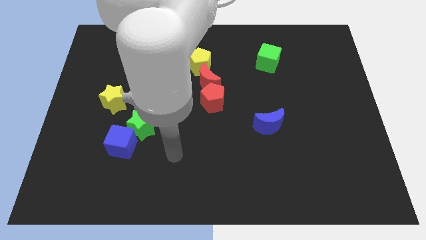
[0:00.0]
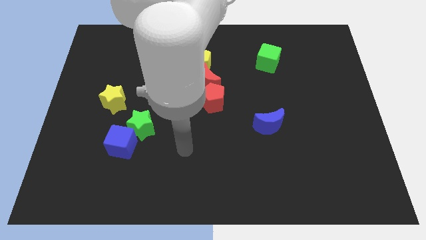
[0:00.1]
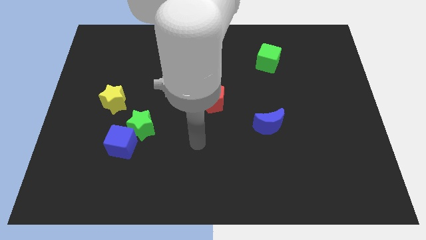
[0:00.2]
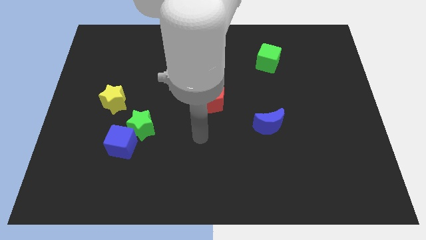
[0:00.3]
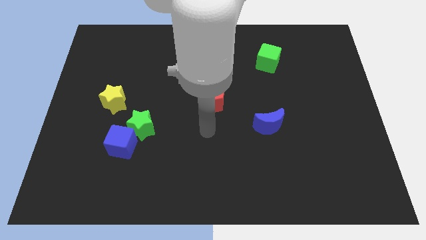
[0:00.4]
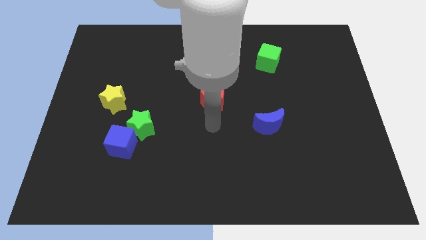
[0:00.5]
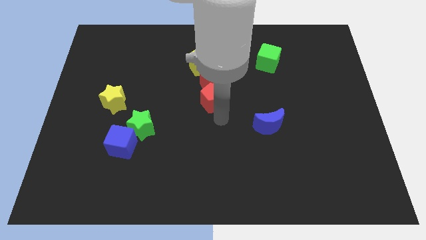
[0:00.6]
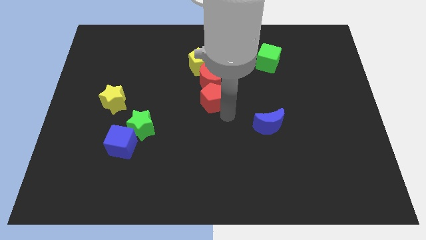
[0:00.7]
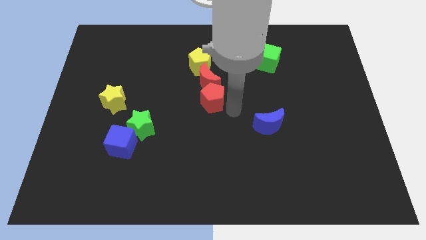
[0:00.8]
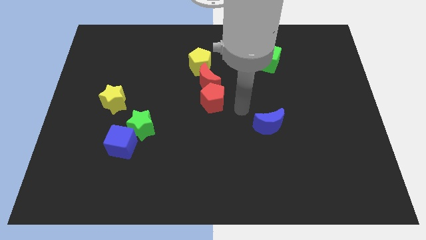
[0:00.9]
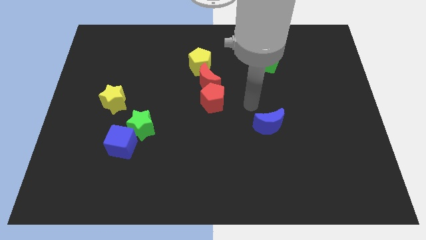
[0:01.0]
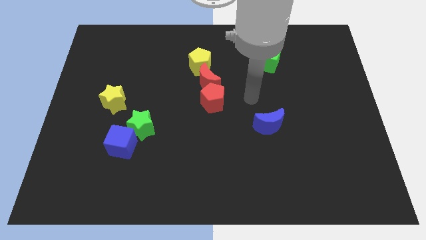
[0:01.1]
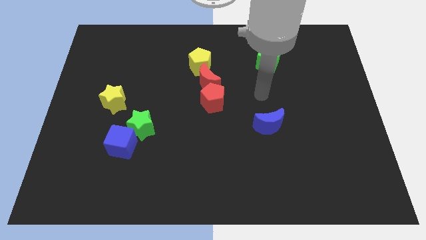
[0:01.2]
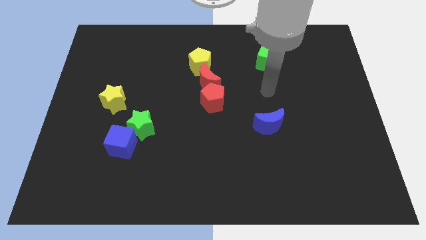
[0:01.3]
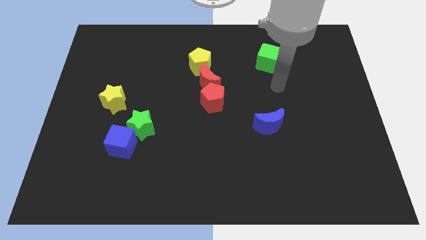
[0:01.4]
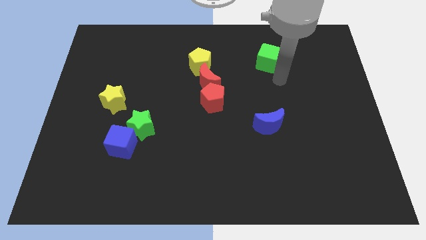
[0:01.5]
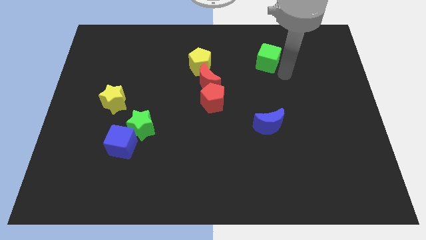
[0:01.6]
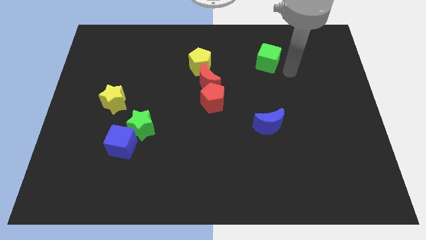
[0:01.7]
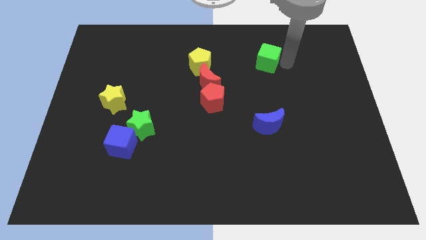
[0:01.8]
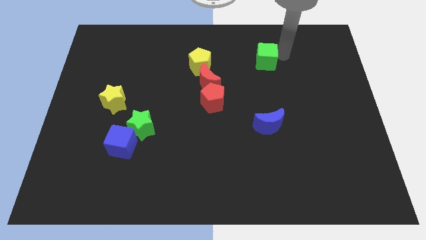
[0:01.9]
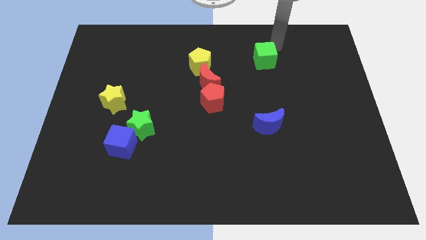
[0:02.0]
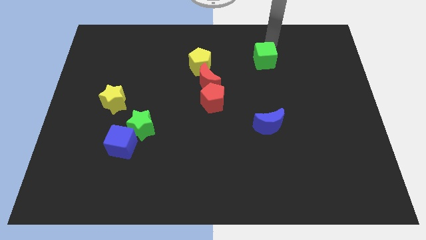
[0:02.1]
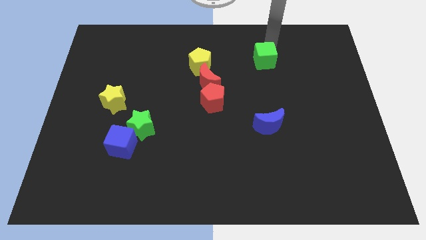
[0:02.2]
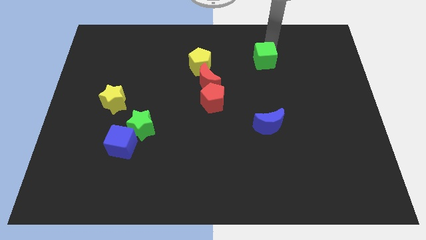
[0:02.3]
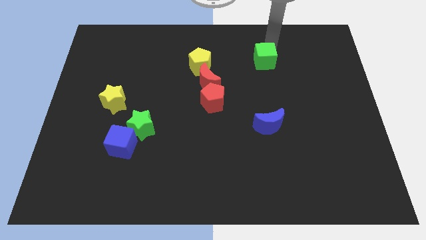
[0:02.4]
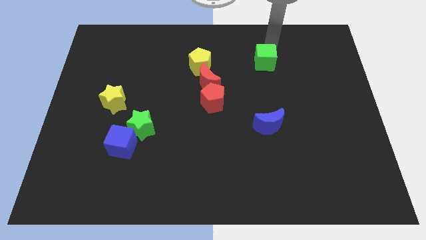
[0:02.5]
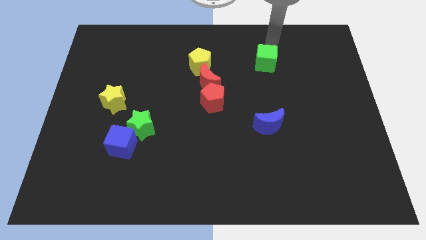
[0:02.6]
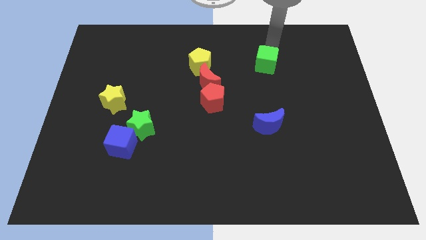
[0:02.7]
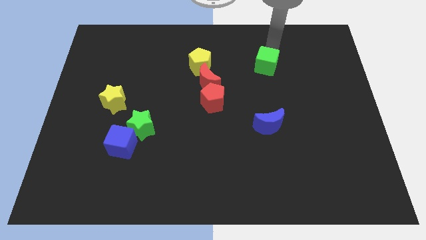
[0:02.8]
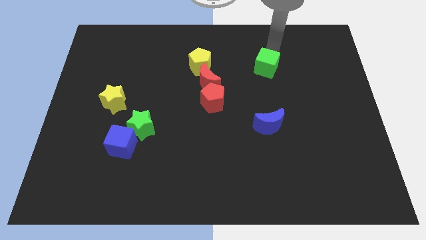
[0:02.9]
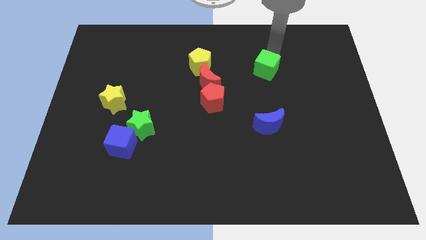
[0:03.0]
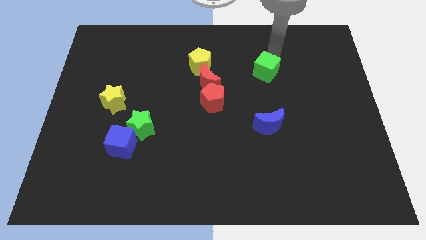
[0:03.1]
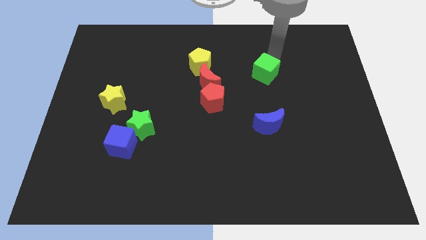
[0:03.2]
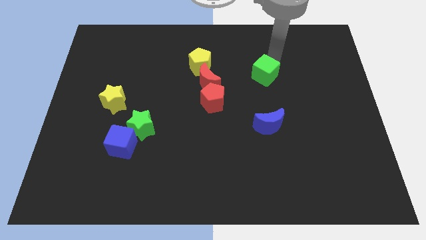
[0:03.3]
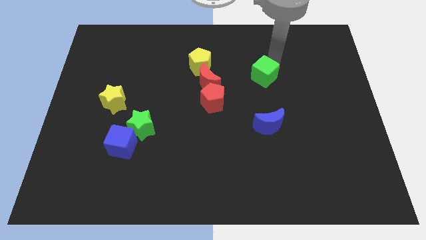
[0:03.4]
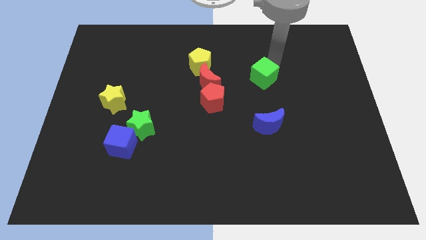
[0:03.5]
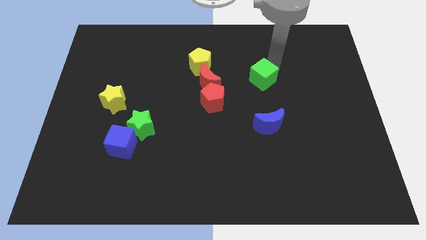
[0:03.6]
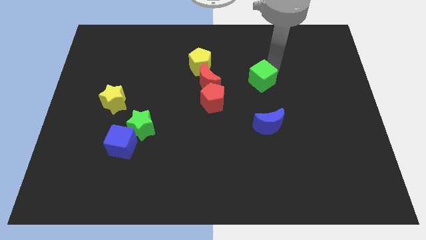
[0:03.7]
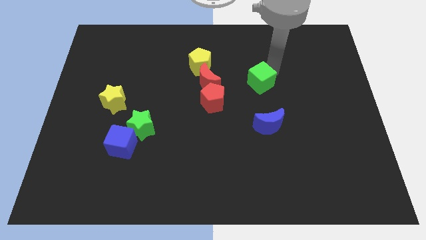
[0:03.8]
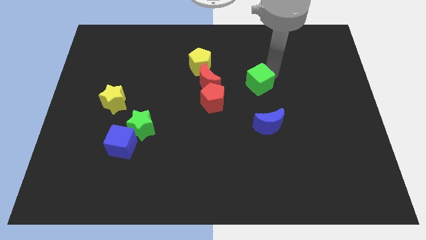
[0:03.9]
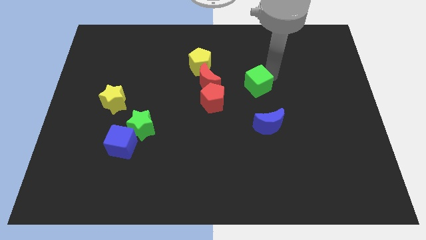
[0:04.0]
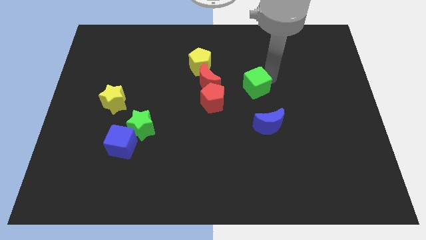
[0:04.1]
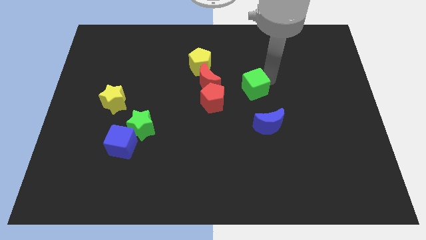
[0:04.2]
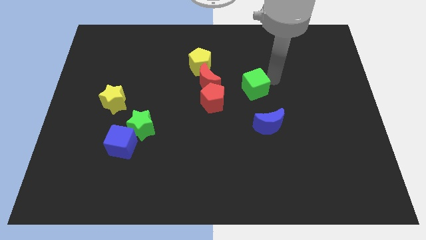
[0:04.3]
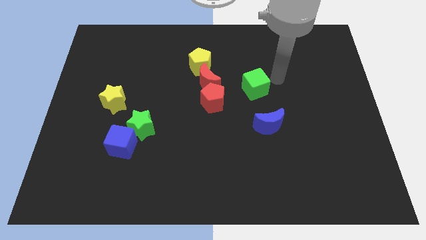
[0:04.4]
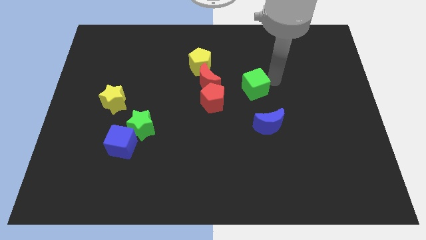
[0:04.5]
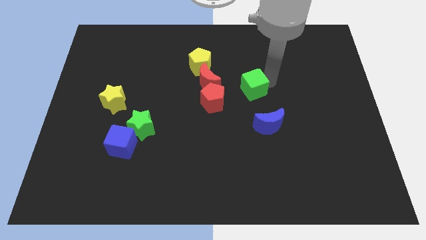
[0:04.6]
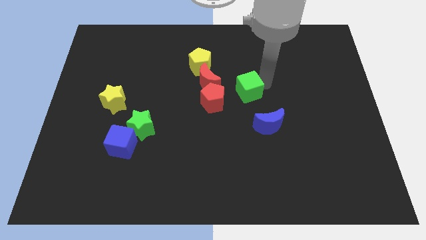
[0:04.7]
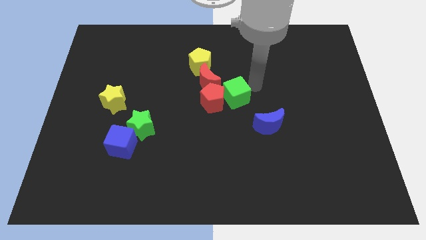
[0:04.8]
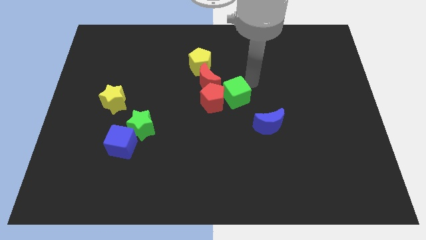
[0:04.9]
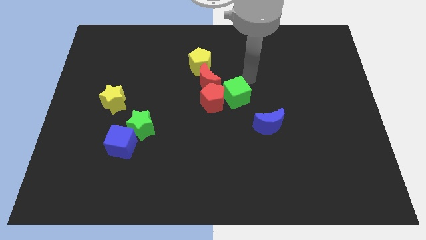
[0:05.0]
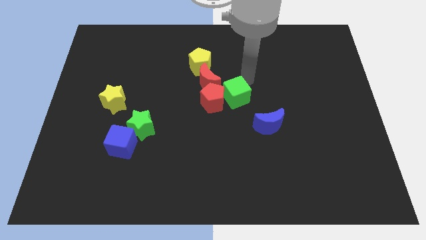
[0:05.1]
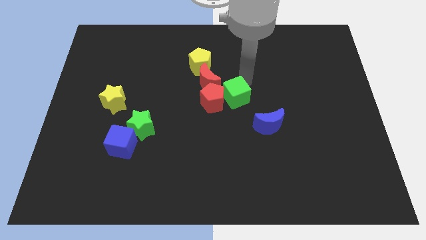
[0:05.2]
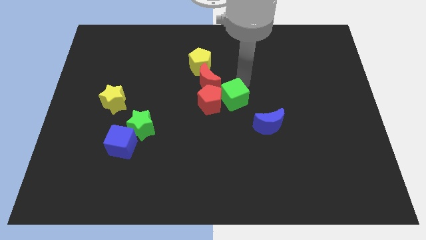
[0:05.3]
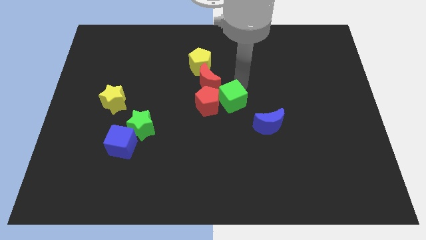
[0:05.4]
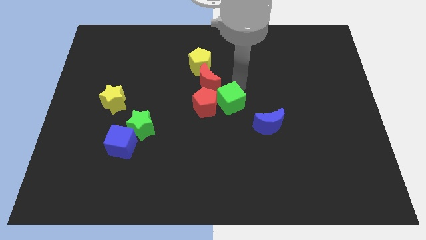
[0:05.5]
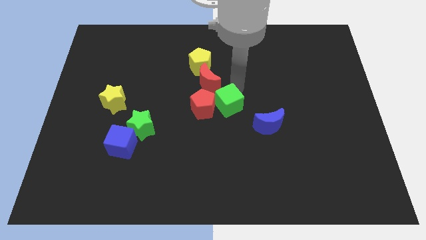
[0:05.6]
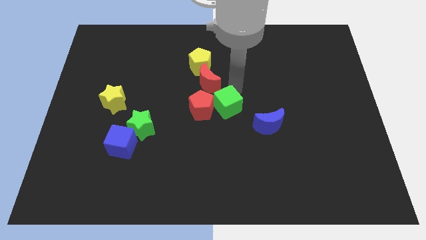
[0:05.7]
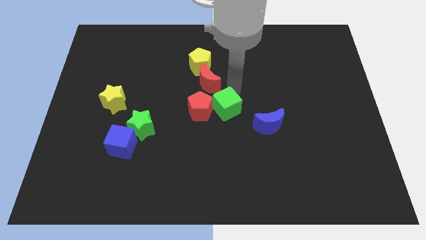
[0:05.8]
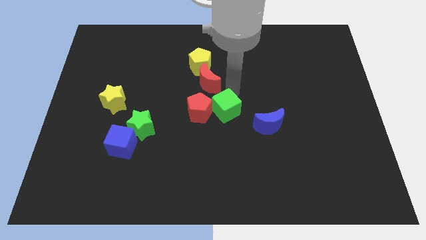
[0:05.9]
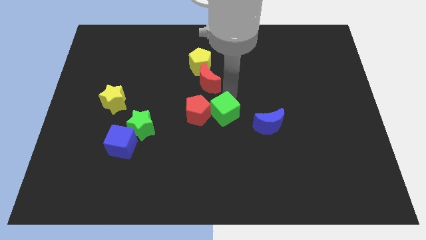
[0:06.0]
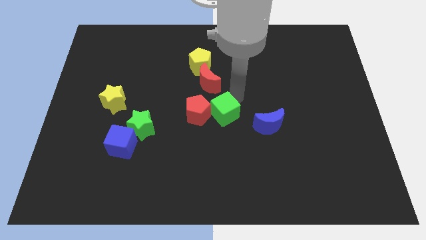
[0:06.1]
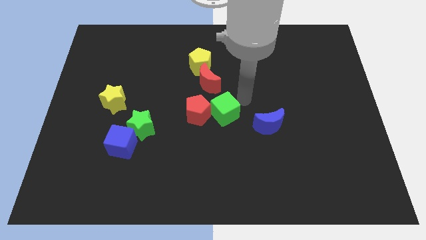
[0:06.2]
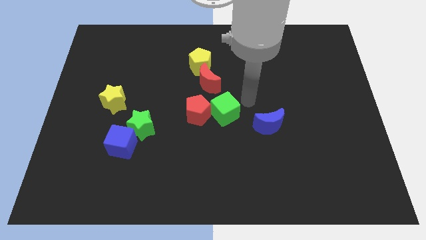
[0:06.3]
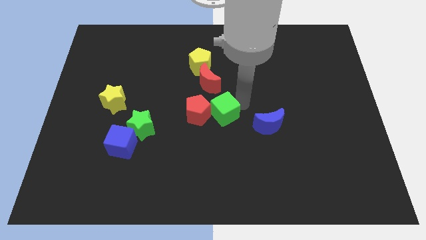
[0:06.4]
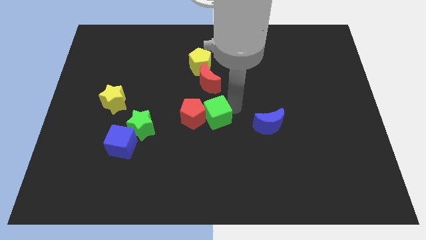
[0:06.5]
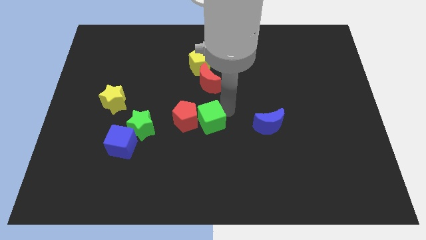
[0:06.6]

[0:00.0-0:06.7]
move the green cube right of the green star
